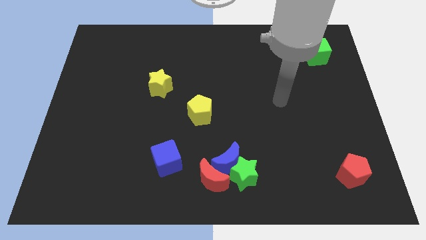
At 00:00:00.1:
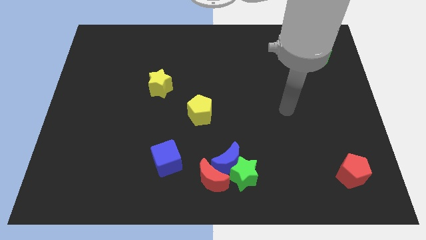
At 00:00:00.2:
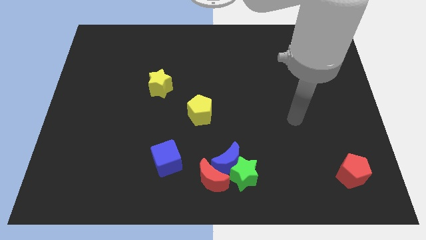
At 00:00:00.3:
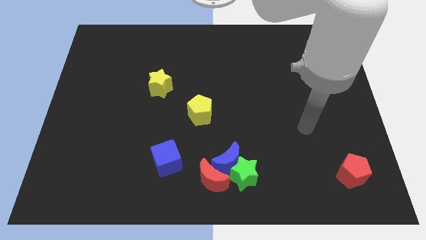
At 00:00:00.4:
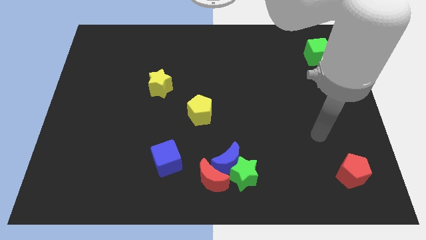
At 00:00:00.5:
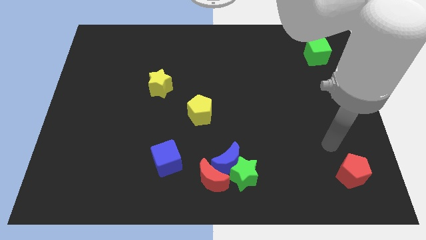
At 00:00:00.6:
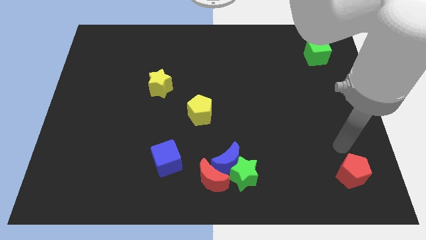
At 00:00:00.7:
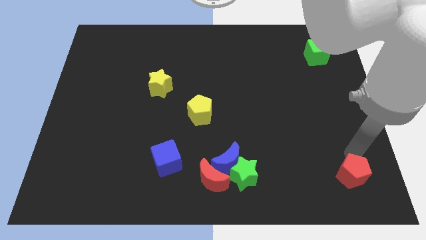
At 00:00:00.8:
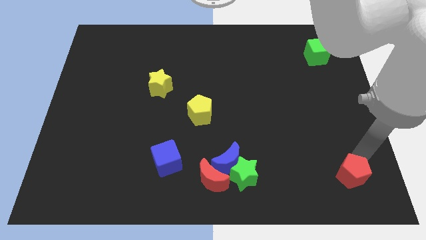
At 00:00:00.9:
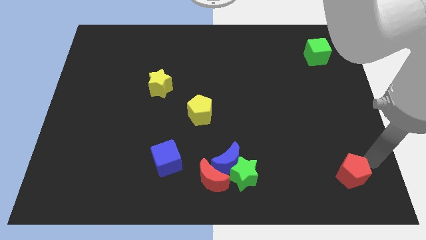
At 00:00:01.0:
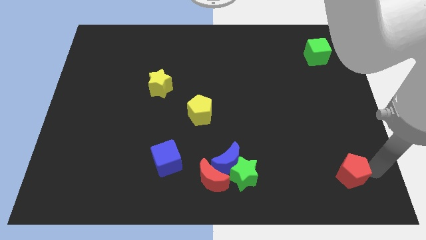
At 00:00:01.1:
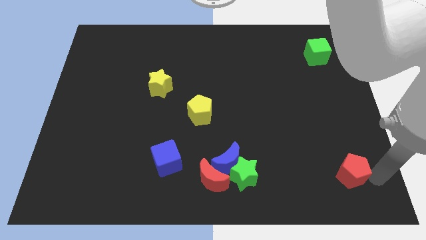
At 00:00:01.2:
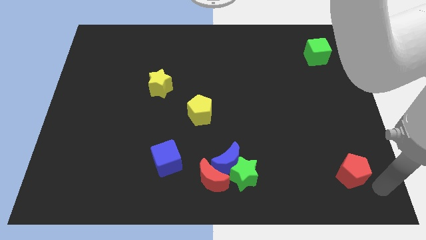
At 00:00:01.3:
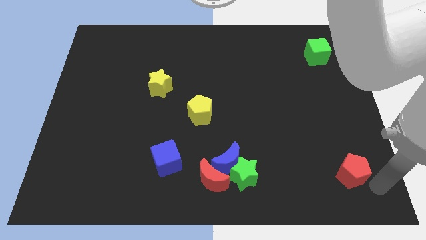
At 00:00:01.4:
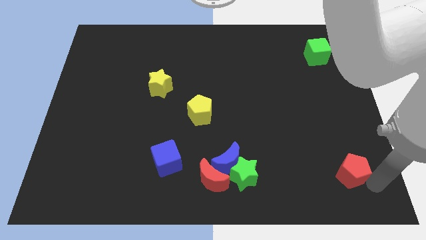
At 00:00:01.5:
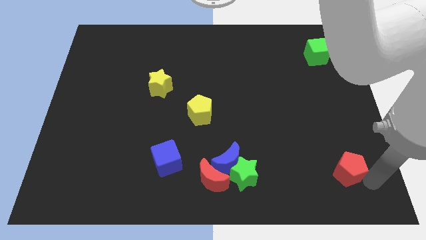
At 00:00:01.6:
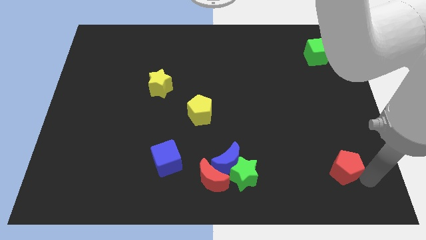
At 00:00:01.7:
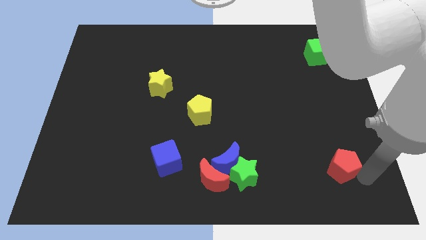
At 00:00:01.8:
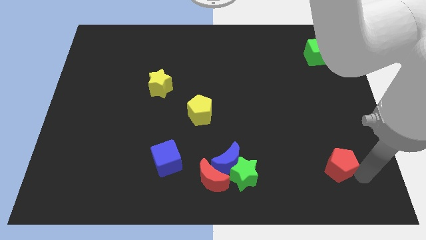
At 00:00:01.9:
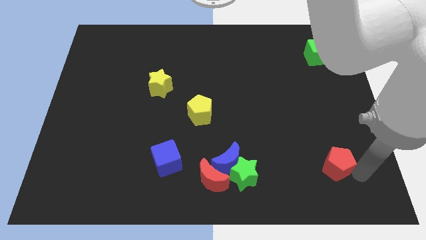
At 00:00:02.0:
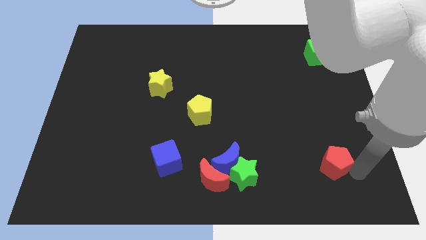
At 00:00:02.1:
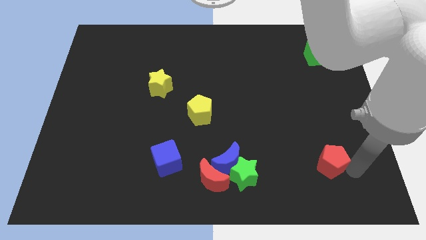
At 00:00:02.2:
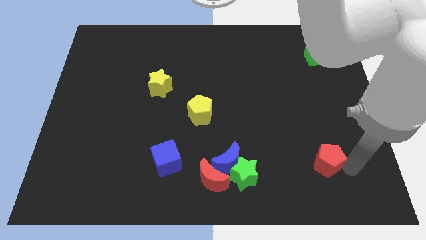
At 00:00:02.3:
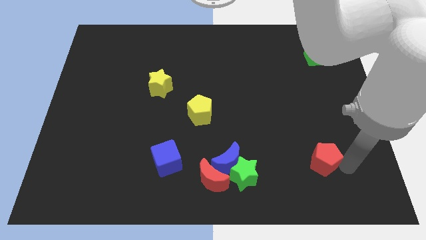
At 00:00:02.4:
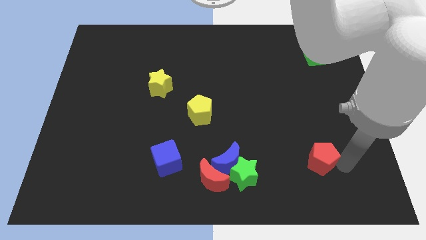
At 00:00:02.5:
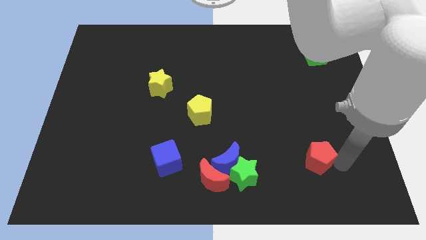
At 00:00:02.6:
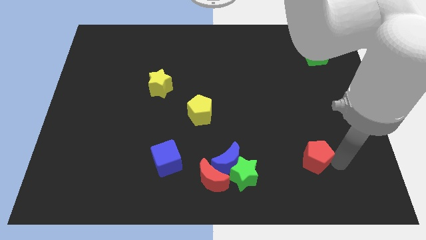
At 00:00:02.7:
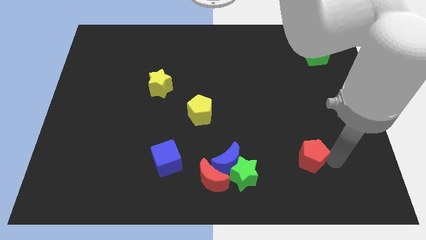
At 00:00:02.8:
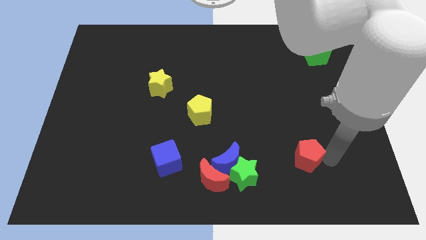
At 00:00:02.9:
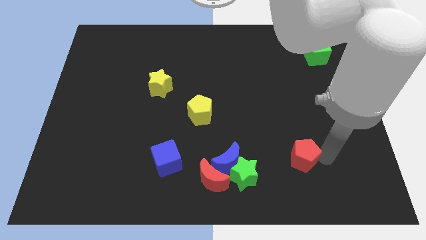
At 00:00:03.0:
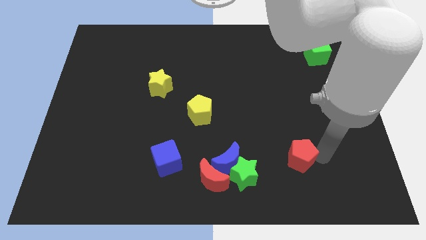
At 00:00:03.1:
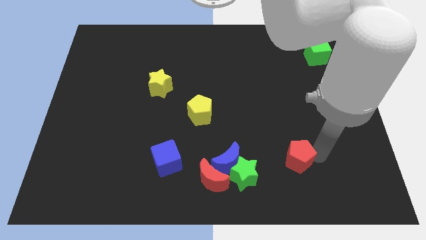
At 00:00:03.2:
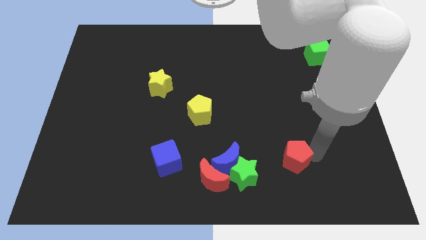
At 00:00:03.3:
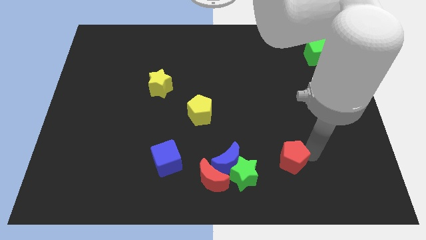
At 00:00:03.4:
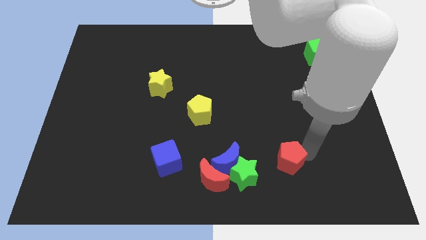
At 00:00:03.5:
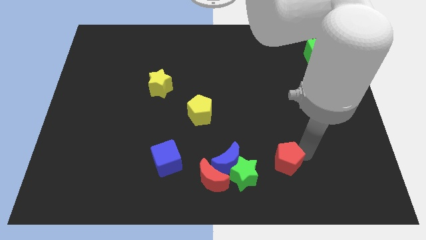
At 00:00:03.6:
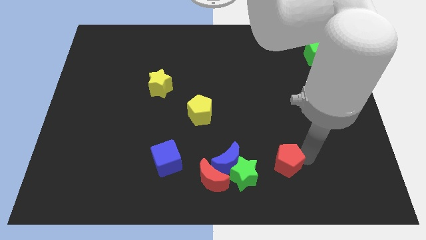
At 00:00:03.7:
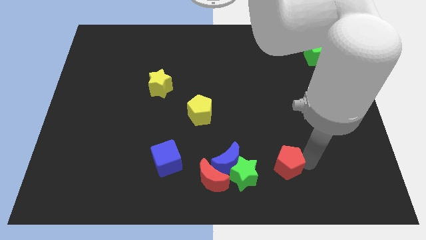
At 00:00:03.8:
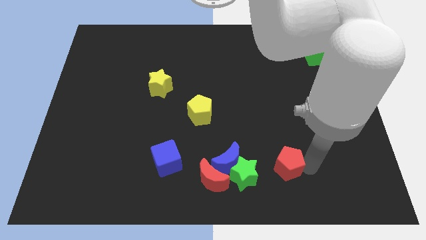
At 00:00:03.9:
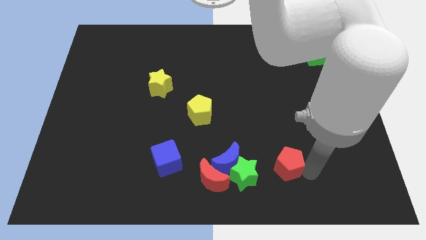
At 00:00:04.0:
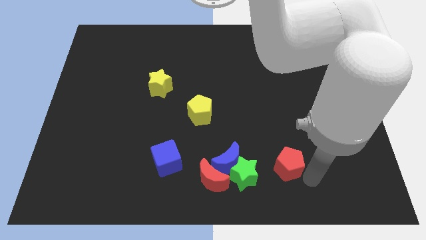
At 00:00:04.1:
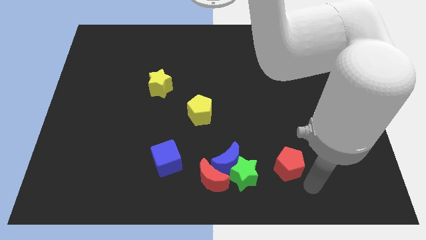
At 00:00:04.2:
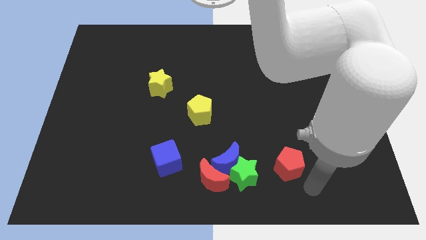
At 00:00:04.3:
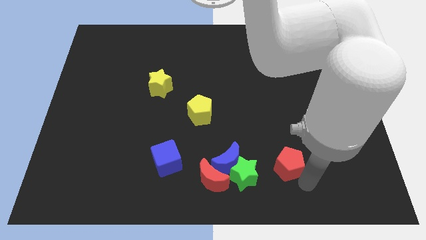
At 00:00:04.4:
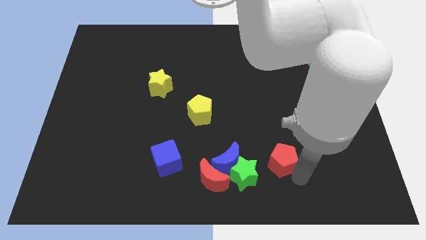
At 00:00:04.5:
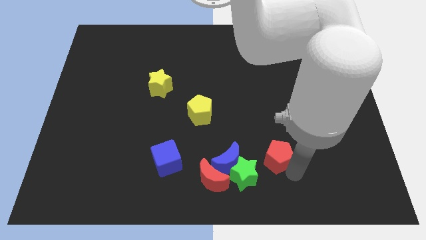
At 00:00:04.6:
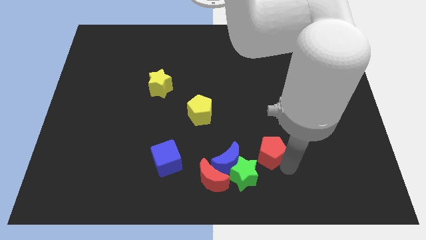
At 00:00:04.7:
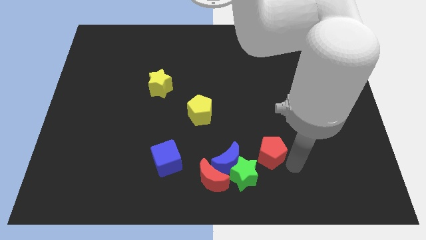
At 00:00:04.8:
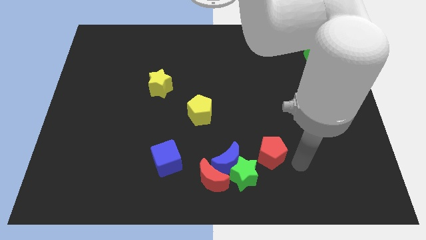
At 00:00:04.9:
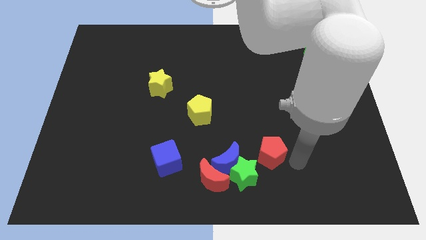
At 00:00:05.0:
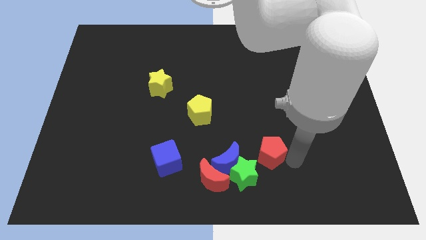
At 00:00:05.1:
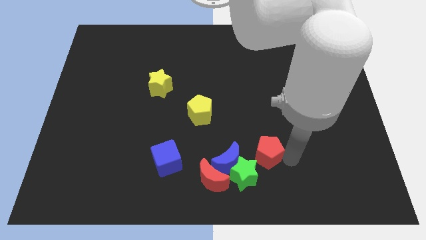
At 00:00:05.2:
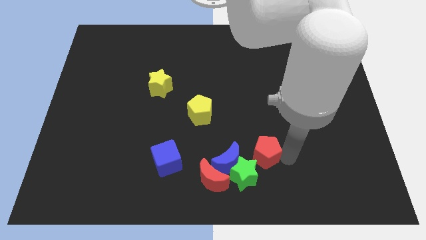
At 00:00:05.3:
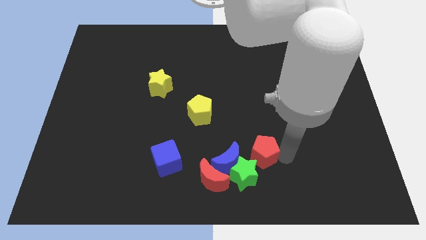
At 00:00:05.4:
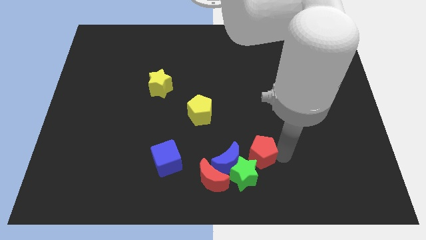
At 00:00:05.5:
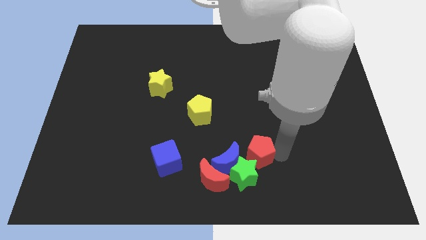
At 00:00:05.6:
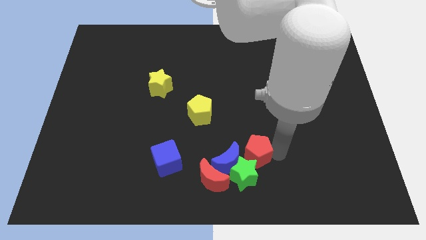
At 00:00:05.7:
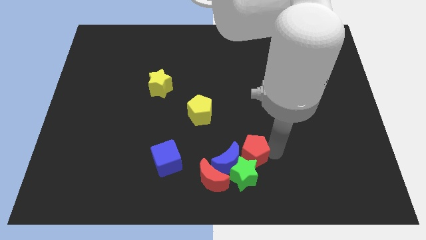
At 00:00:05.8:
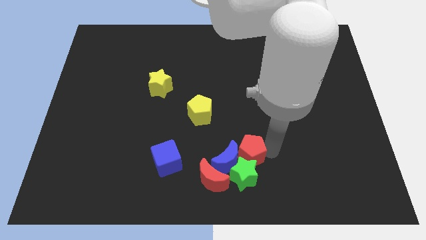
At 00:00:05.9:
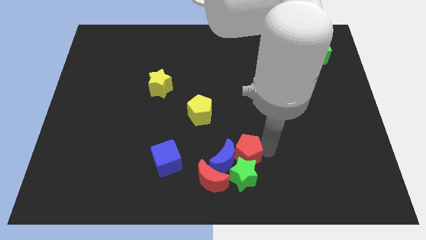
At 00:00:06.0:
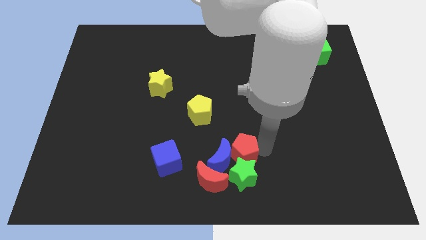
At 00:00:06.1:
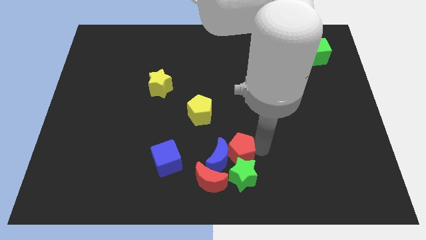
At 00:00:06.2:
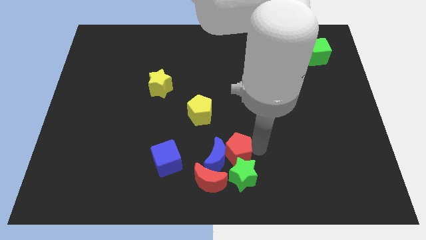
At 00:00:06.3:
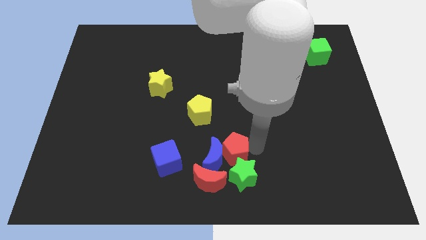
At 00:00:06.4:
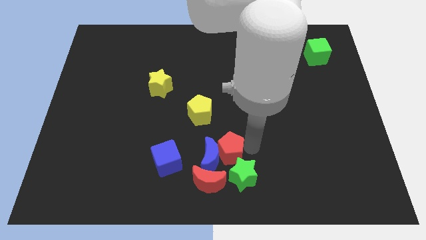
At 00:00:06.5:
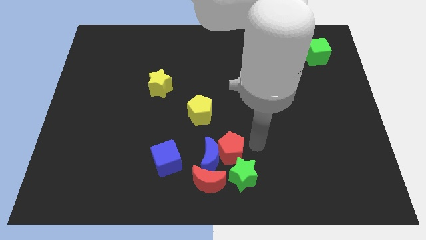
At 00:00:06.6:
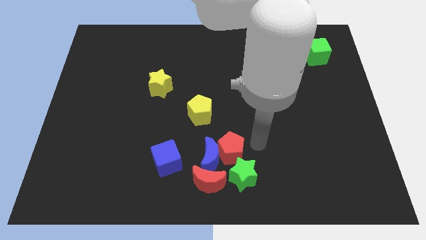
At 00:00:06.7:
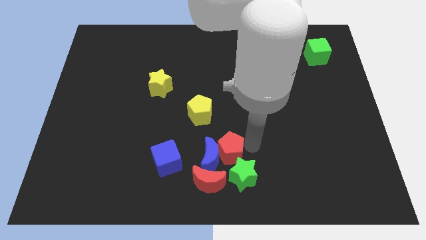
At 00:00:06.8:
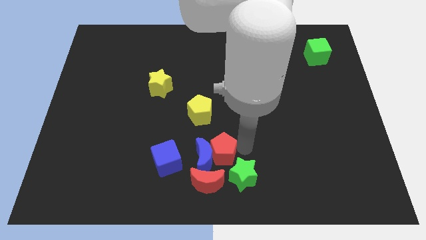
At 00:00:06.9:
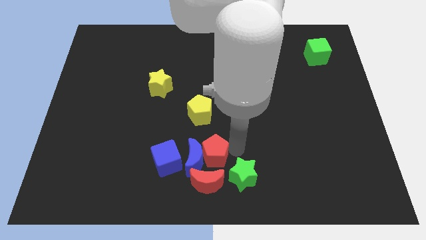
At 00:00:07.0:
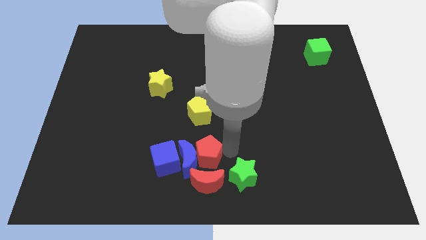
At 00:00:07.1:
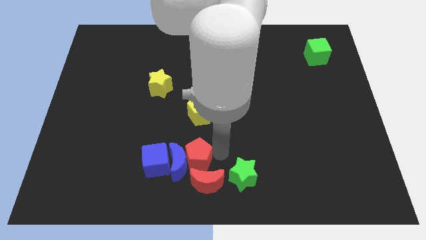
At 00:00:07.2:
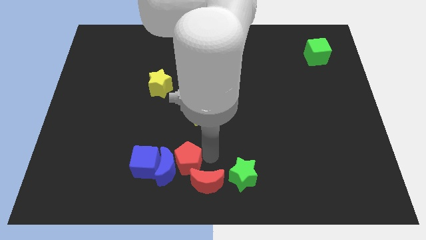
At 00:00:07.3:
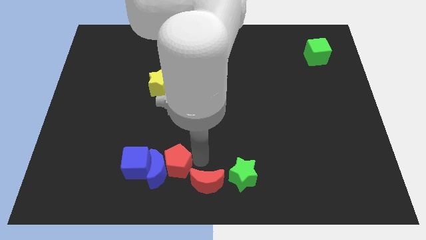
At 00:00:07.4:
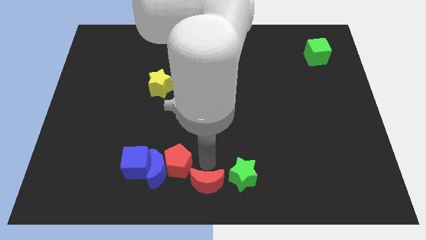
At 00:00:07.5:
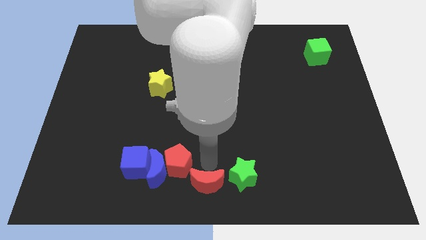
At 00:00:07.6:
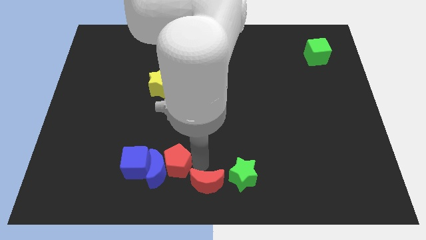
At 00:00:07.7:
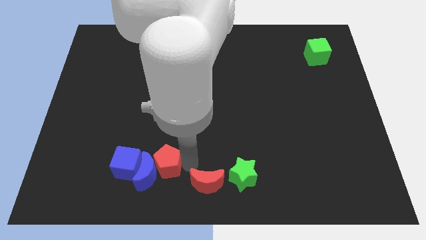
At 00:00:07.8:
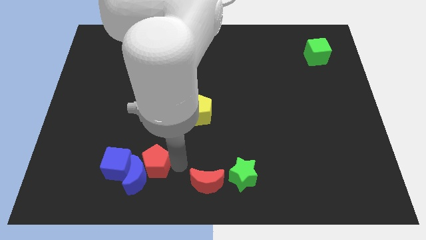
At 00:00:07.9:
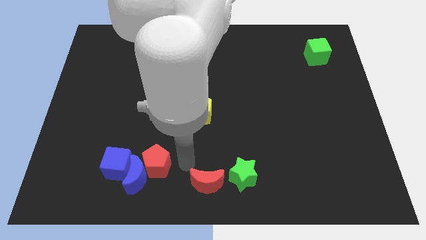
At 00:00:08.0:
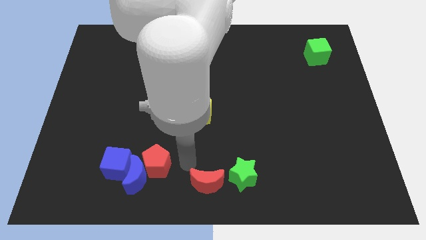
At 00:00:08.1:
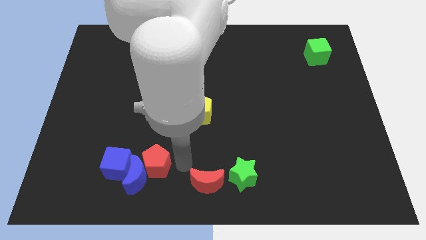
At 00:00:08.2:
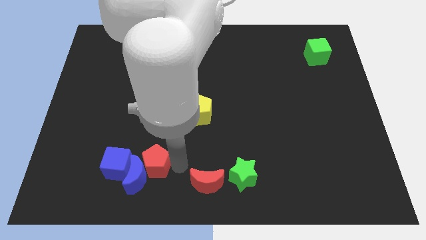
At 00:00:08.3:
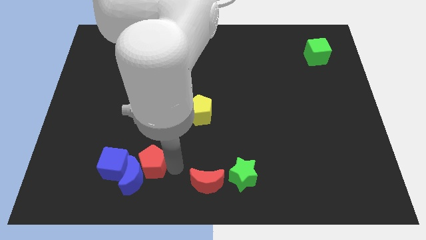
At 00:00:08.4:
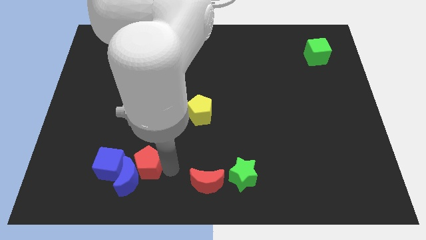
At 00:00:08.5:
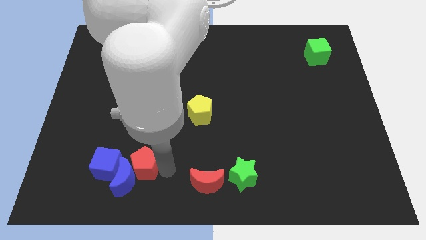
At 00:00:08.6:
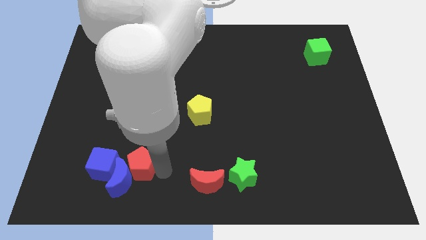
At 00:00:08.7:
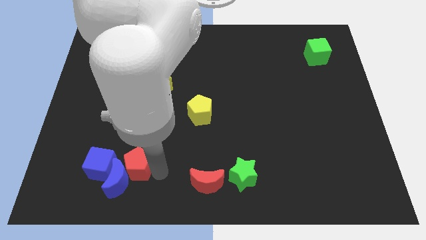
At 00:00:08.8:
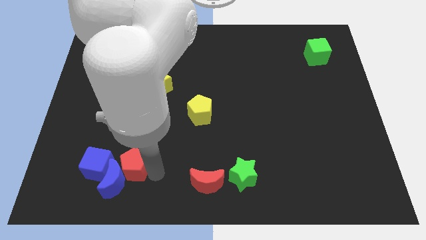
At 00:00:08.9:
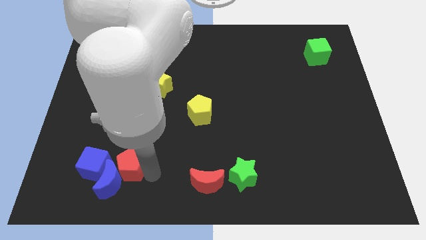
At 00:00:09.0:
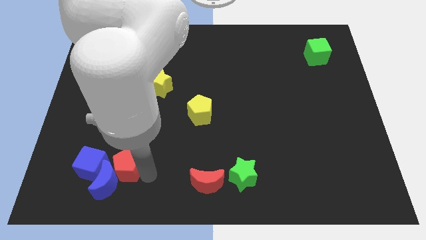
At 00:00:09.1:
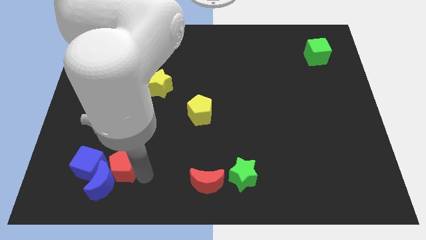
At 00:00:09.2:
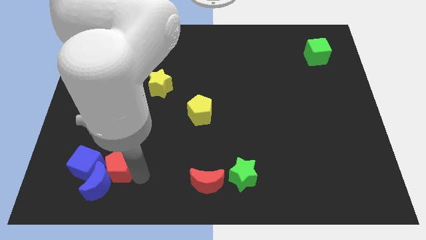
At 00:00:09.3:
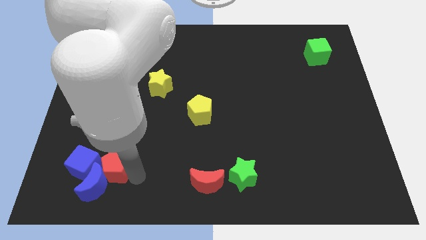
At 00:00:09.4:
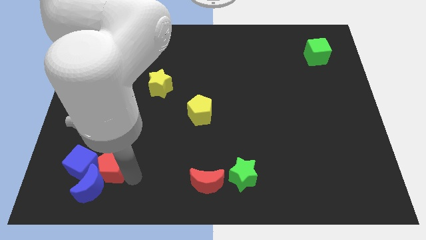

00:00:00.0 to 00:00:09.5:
put the red pentagon next to the blue cube
